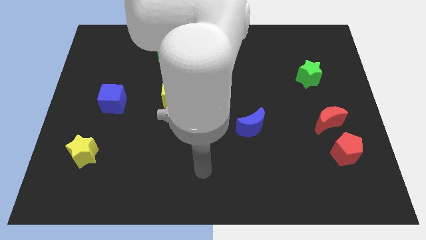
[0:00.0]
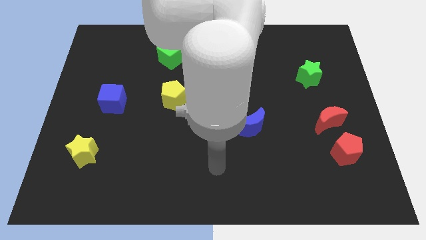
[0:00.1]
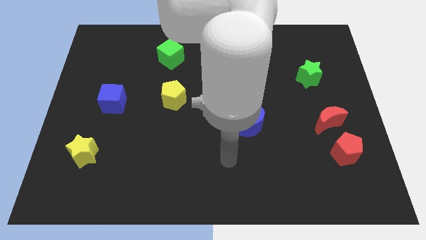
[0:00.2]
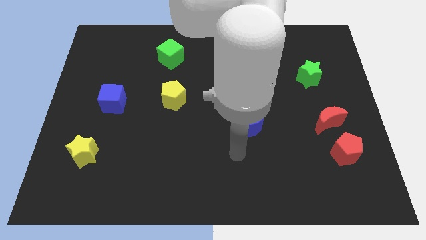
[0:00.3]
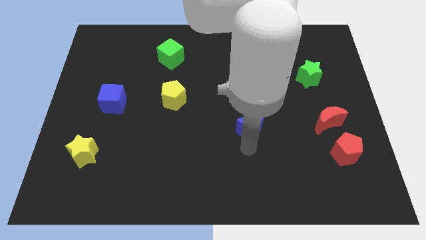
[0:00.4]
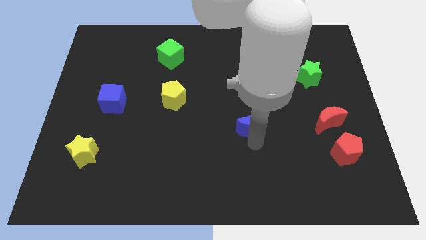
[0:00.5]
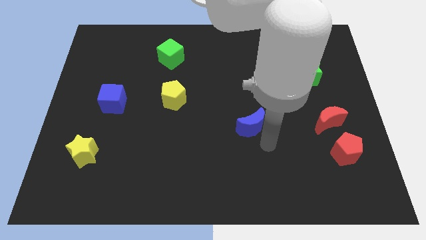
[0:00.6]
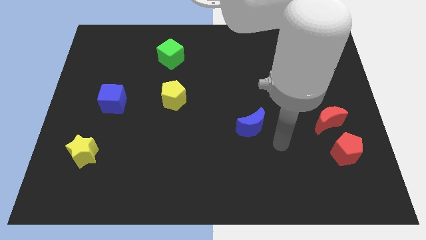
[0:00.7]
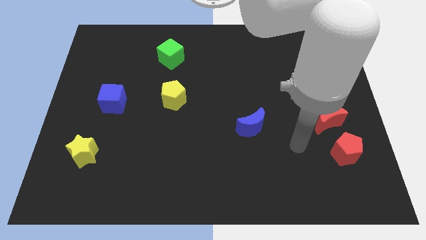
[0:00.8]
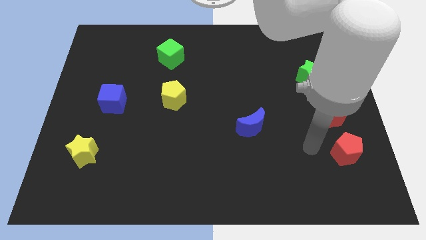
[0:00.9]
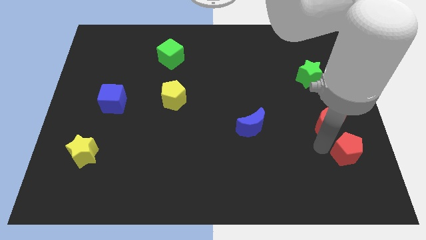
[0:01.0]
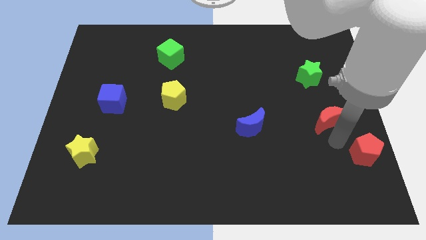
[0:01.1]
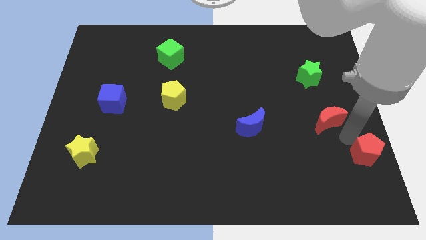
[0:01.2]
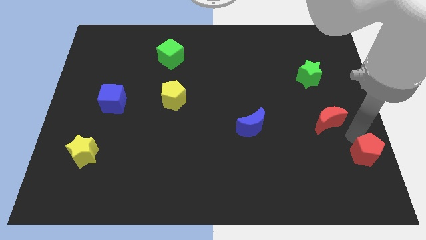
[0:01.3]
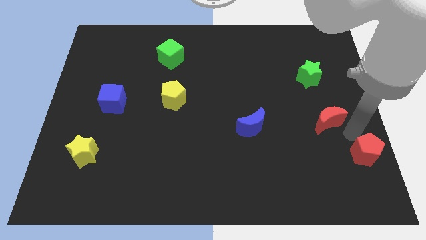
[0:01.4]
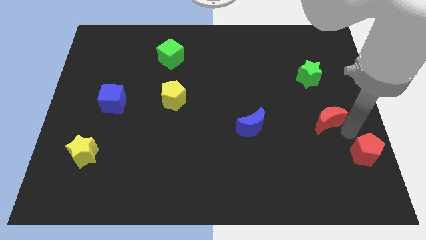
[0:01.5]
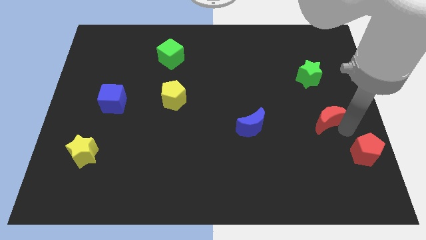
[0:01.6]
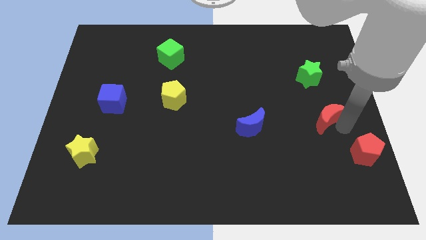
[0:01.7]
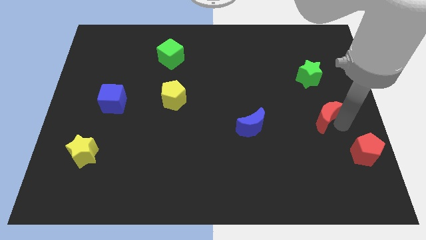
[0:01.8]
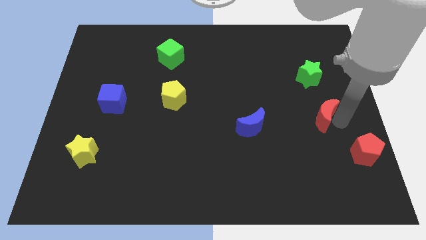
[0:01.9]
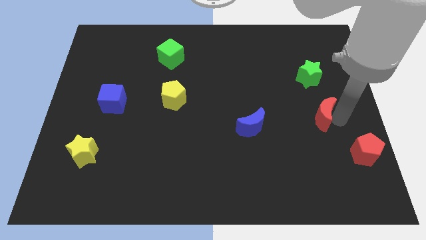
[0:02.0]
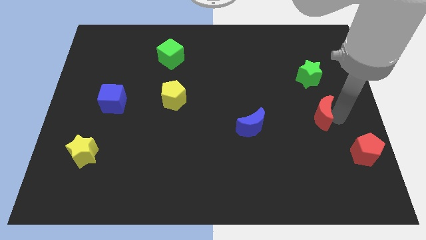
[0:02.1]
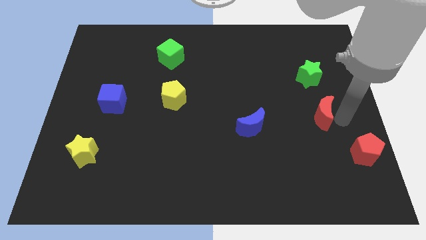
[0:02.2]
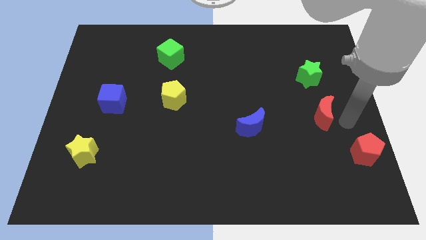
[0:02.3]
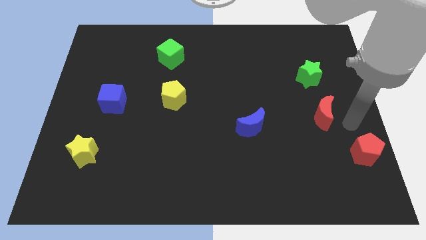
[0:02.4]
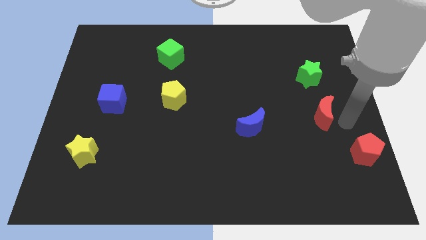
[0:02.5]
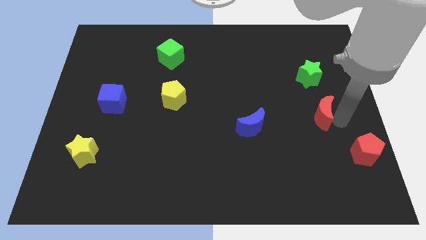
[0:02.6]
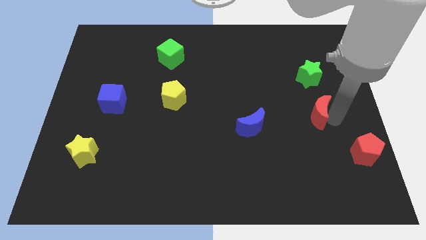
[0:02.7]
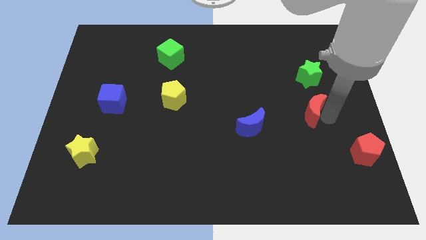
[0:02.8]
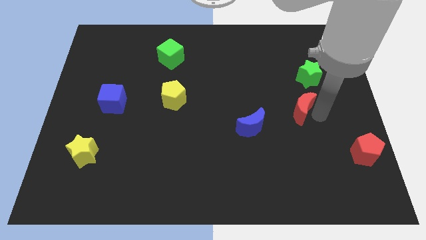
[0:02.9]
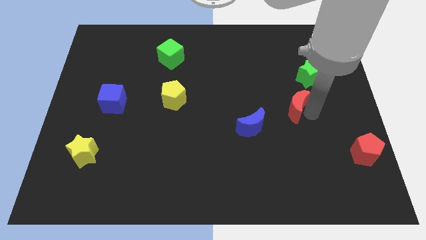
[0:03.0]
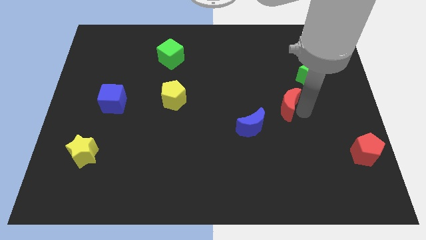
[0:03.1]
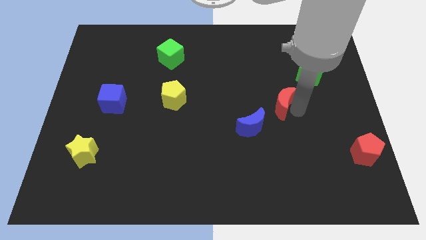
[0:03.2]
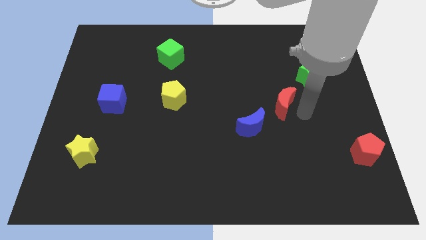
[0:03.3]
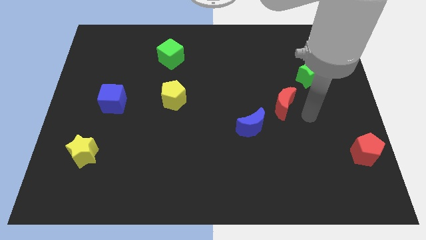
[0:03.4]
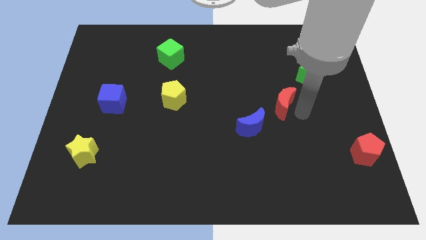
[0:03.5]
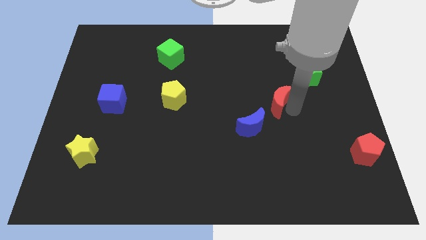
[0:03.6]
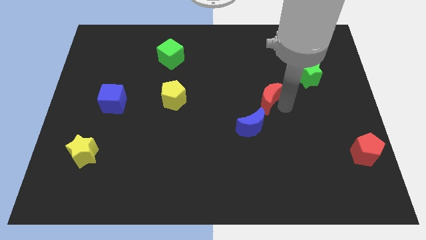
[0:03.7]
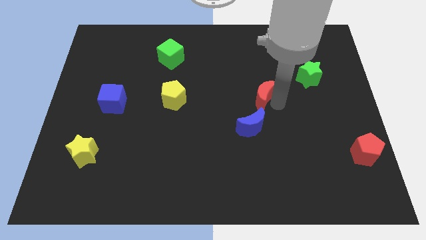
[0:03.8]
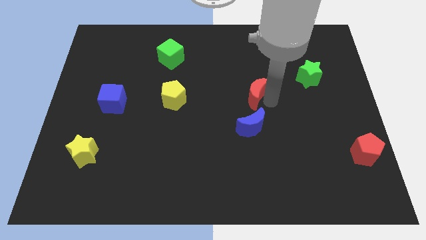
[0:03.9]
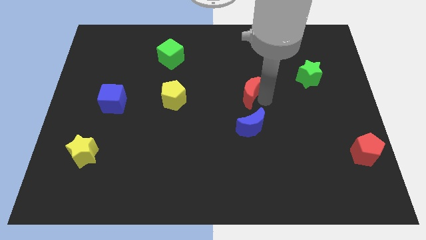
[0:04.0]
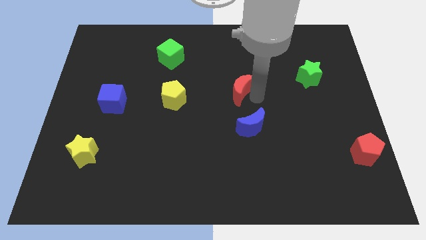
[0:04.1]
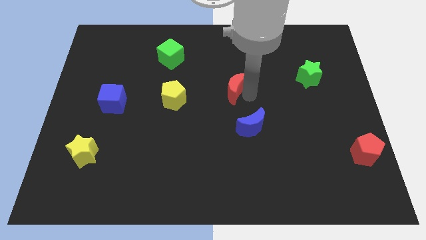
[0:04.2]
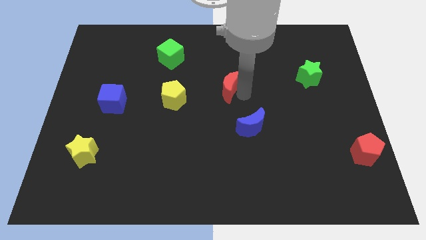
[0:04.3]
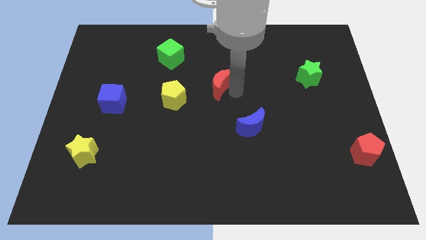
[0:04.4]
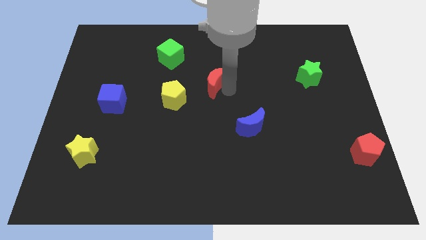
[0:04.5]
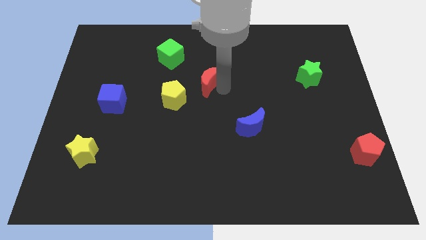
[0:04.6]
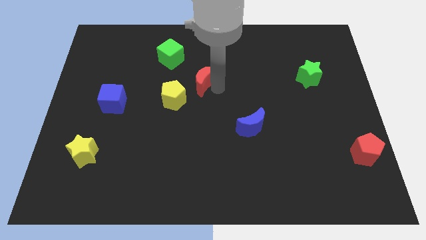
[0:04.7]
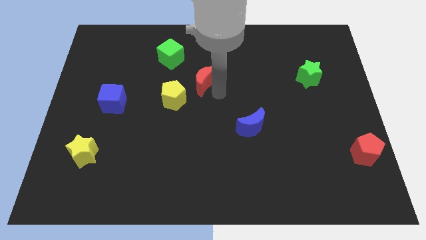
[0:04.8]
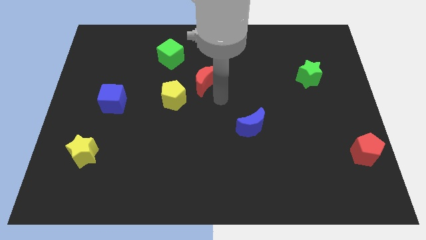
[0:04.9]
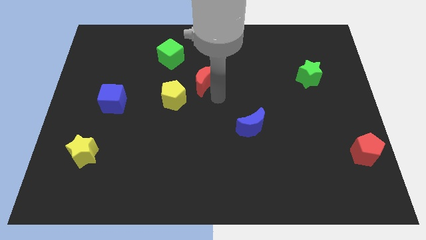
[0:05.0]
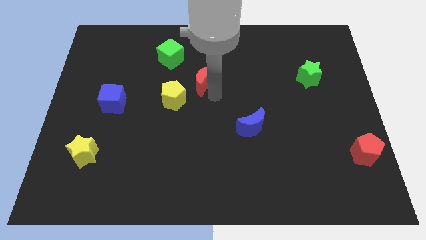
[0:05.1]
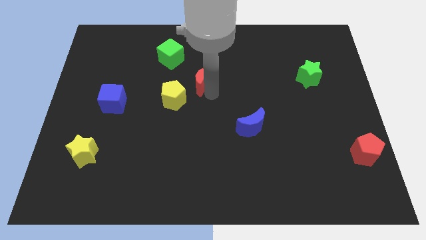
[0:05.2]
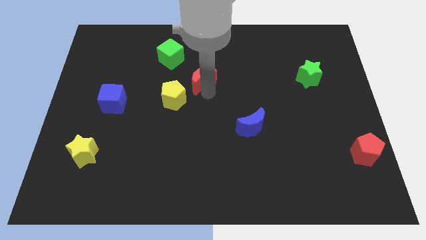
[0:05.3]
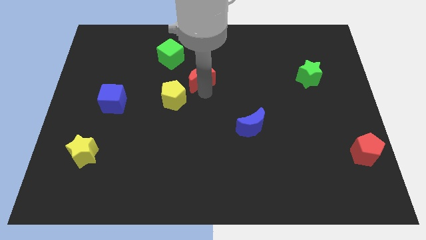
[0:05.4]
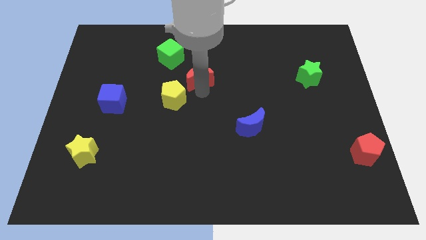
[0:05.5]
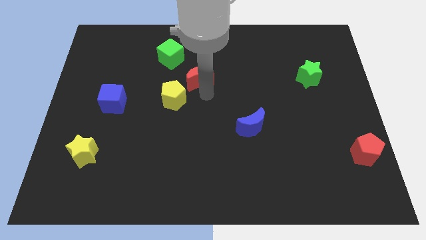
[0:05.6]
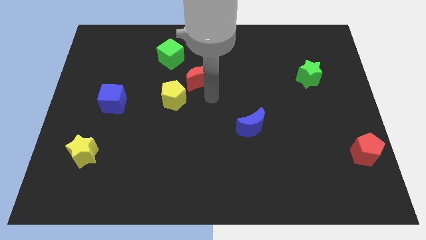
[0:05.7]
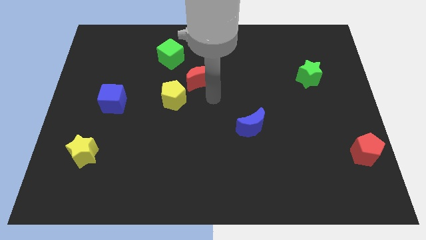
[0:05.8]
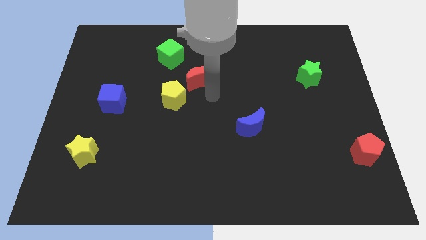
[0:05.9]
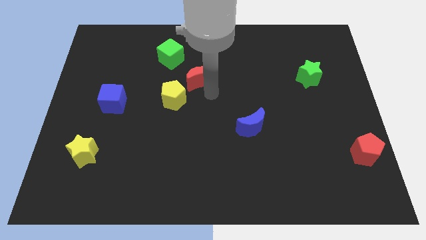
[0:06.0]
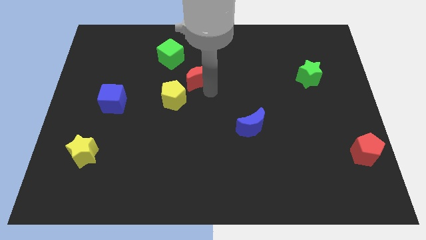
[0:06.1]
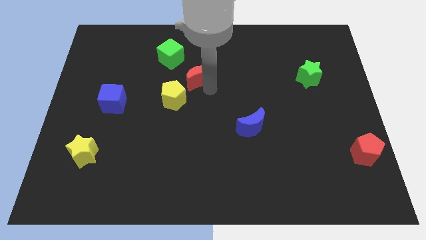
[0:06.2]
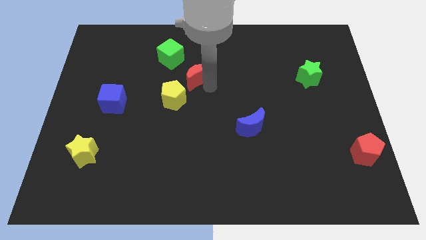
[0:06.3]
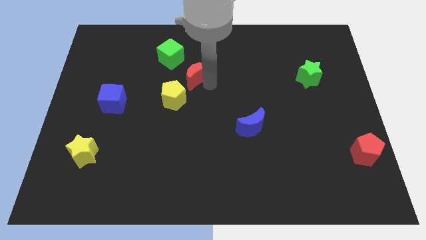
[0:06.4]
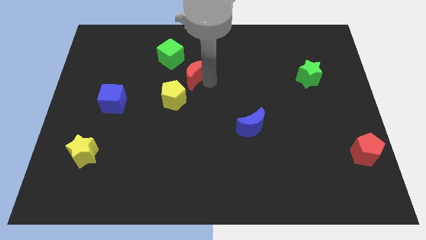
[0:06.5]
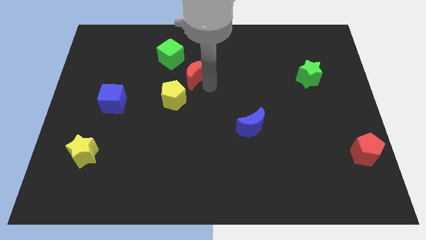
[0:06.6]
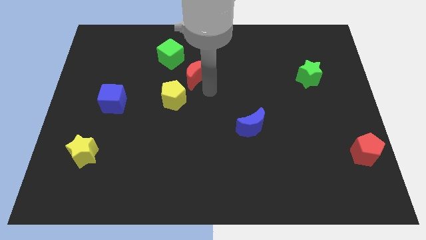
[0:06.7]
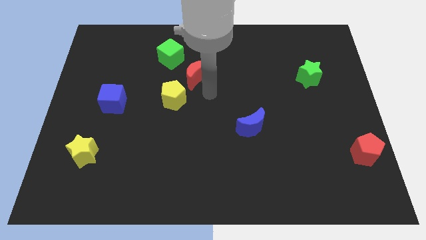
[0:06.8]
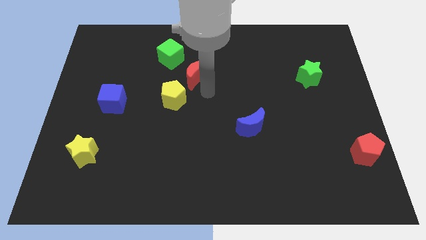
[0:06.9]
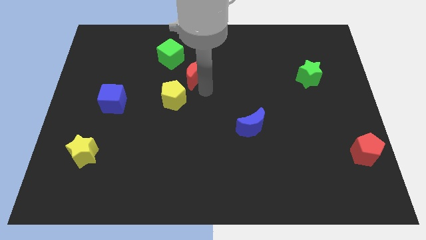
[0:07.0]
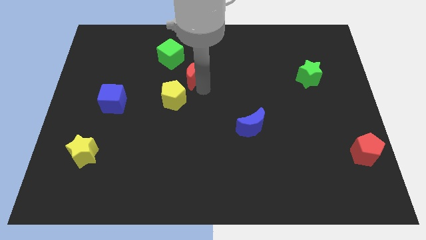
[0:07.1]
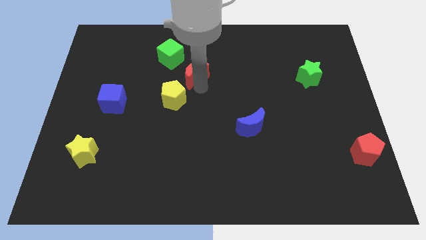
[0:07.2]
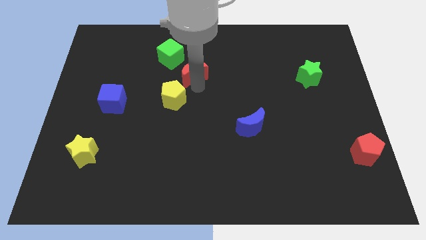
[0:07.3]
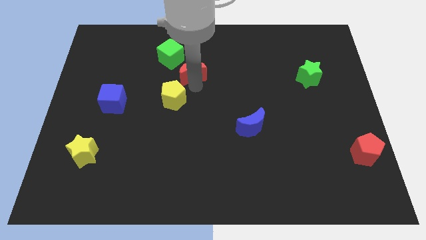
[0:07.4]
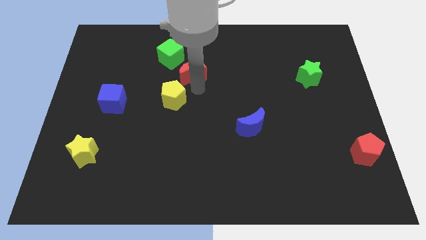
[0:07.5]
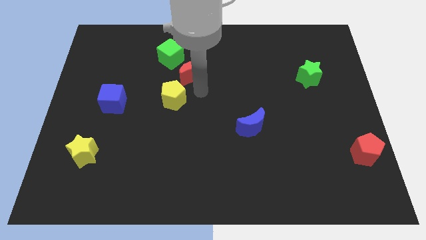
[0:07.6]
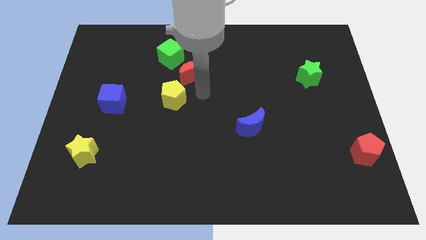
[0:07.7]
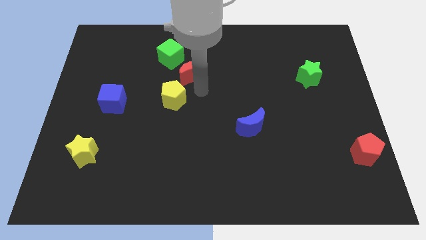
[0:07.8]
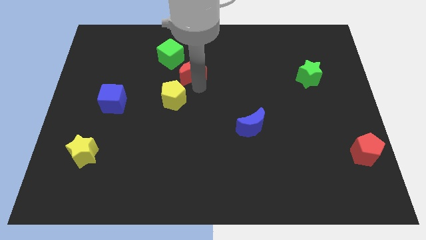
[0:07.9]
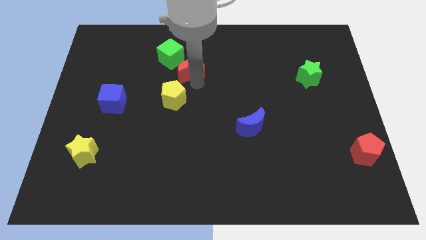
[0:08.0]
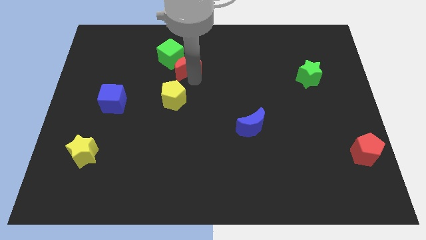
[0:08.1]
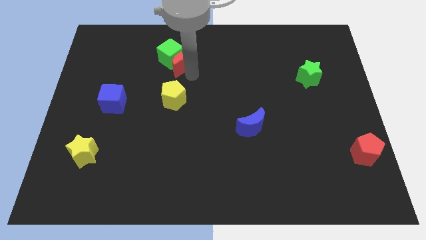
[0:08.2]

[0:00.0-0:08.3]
slide the red moon next to the green cube
